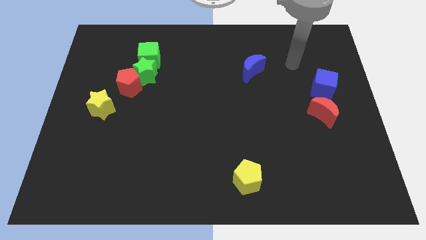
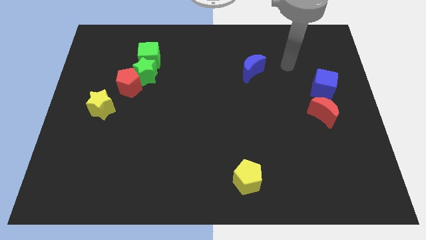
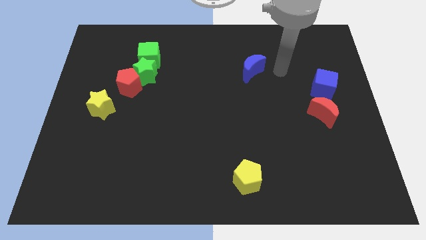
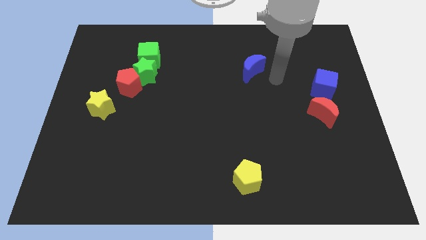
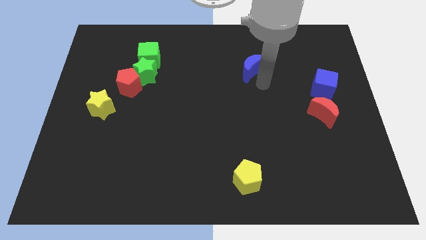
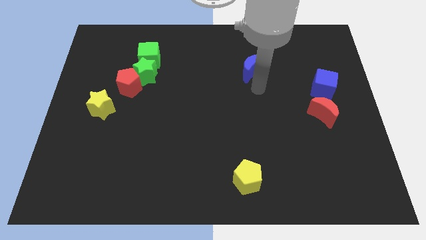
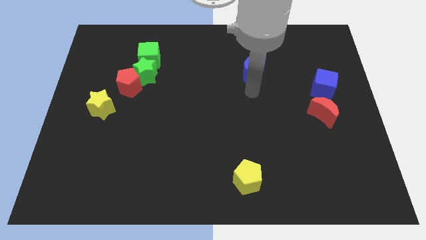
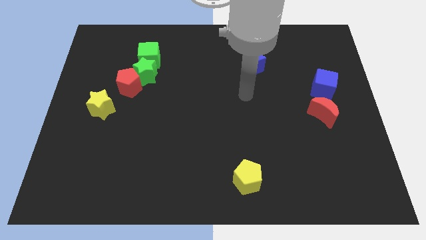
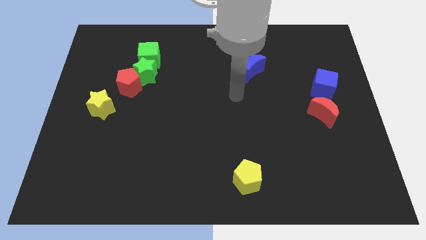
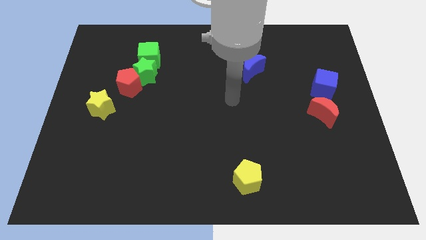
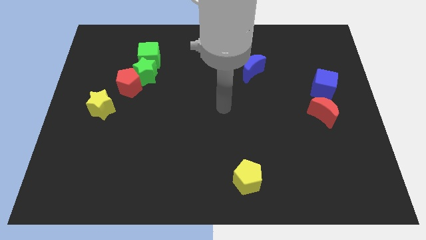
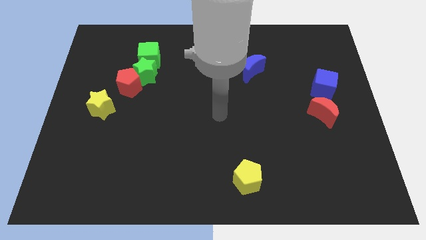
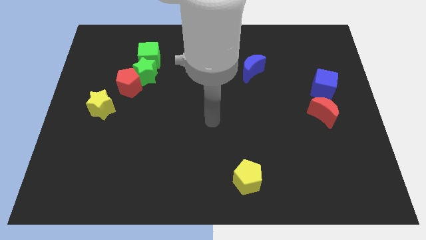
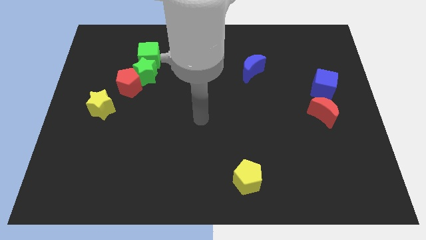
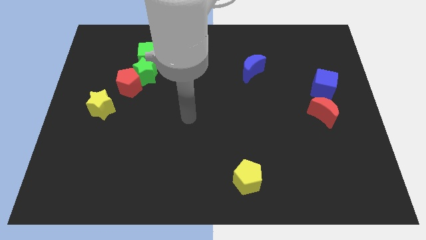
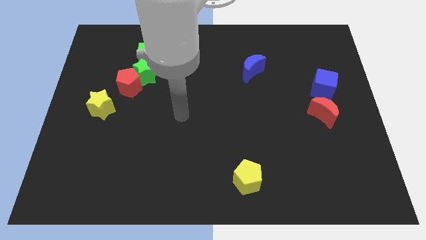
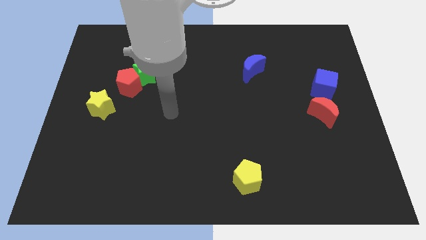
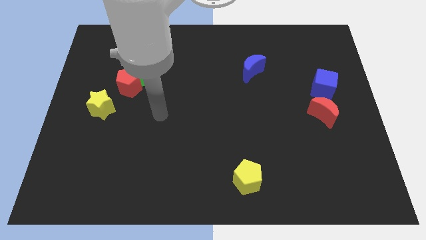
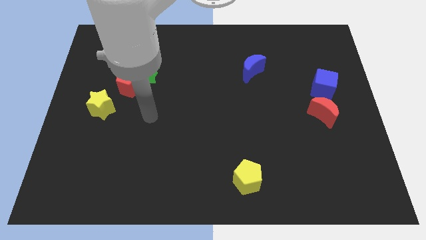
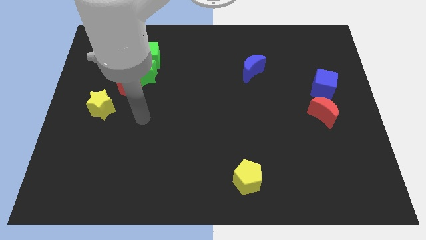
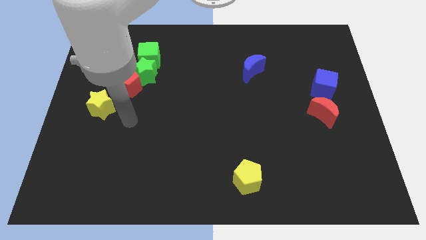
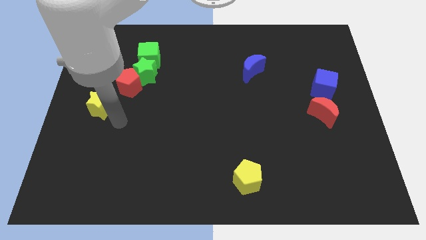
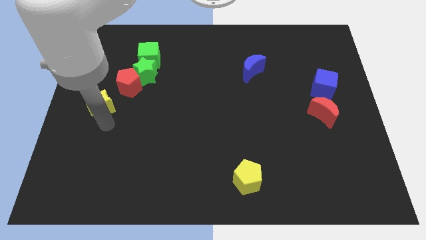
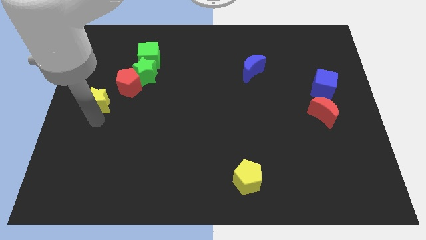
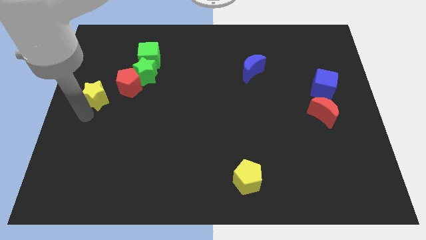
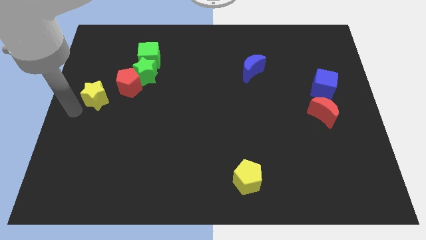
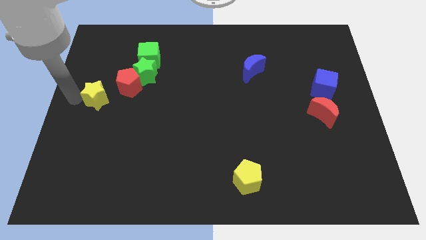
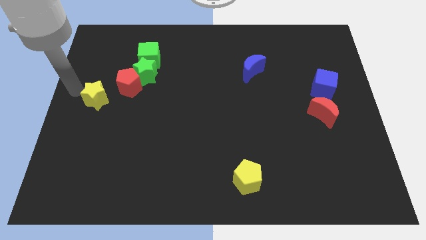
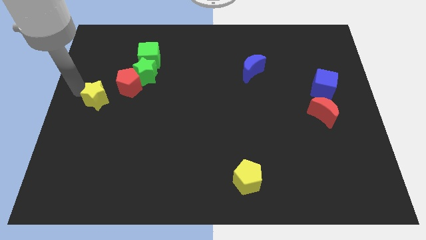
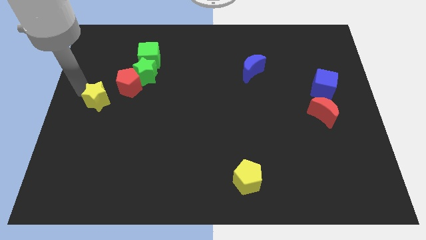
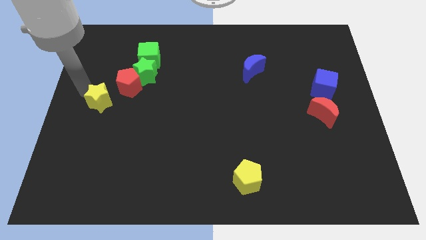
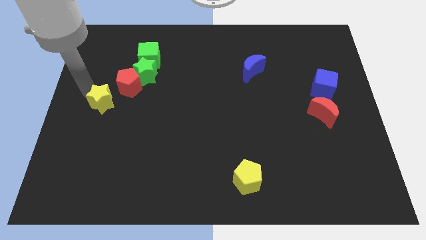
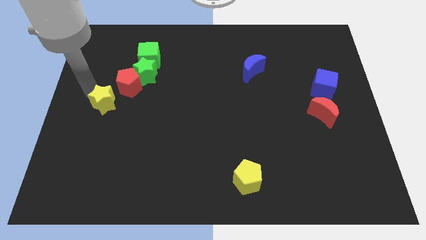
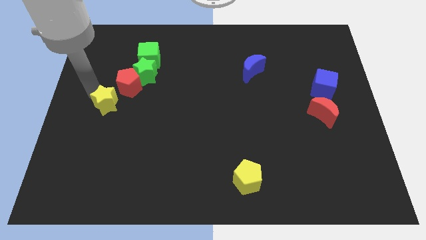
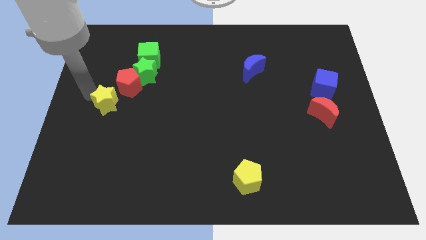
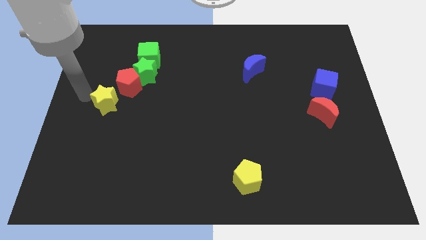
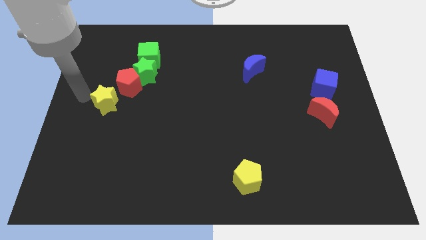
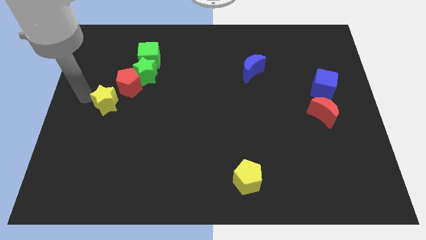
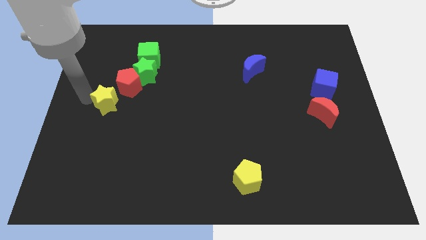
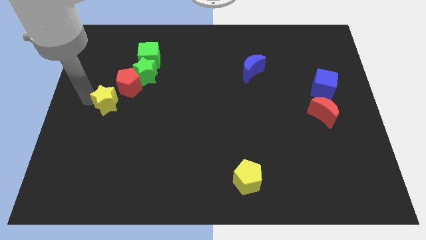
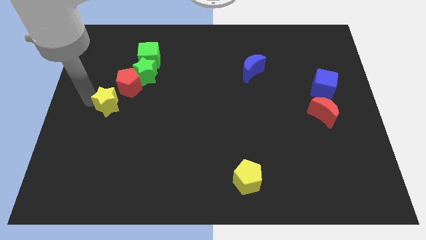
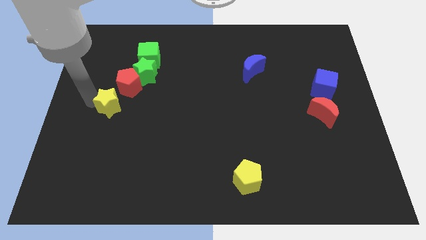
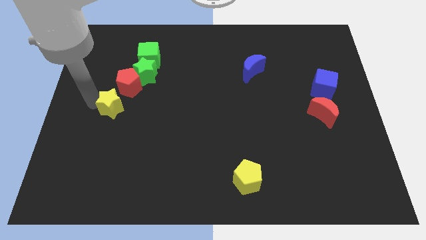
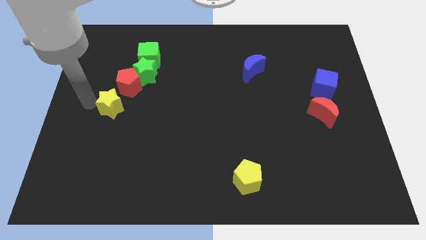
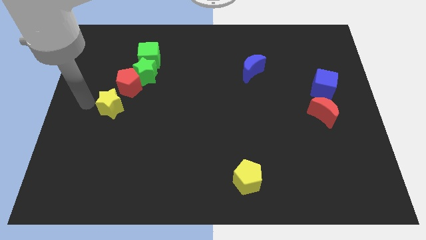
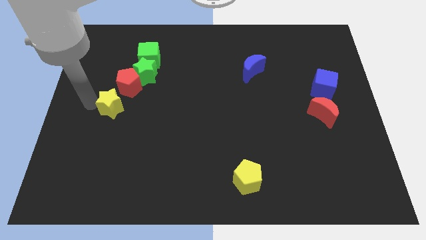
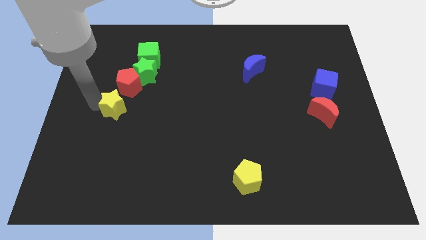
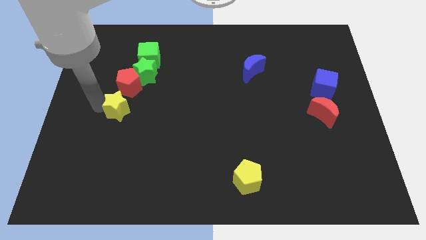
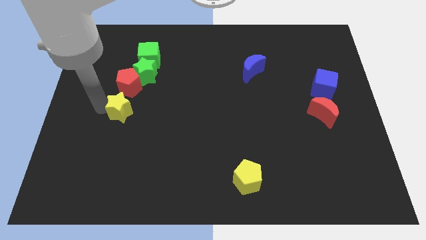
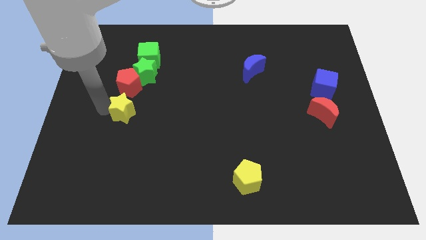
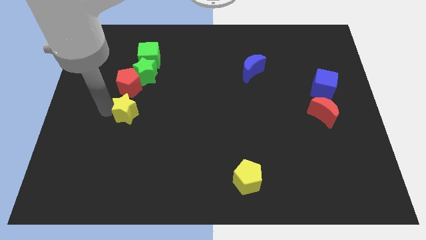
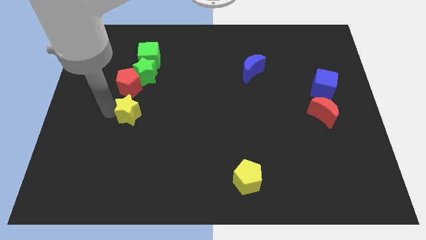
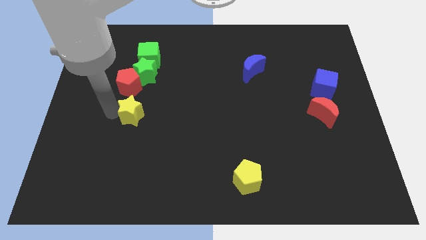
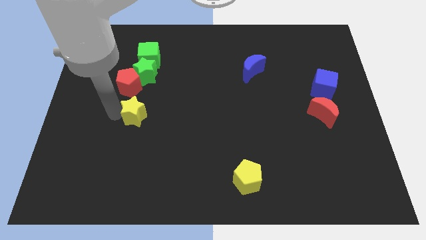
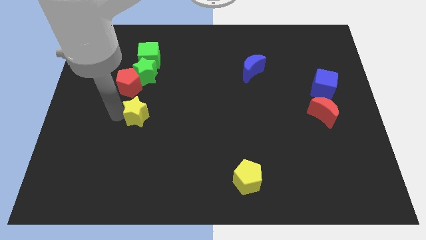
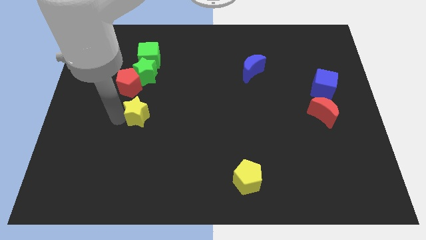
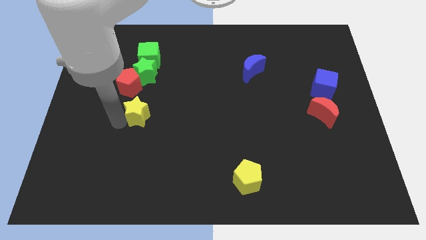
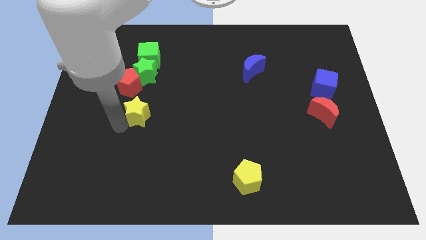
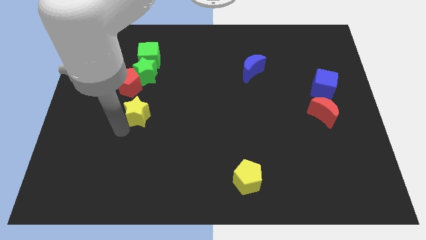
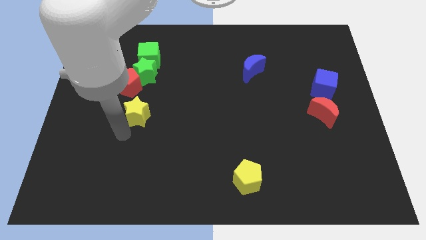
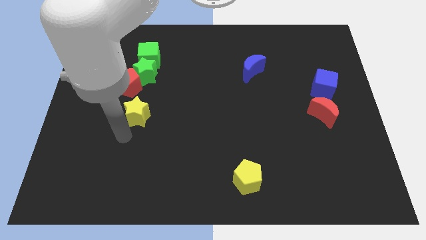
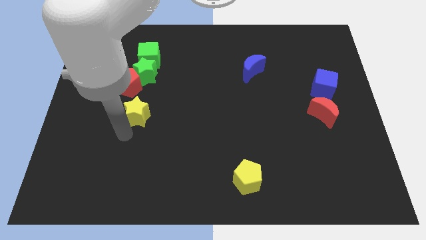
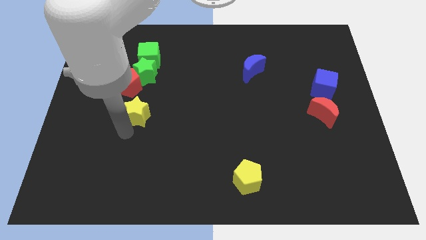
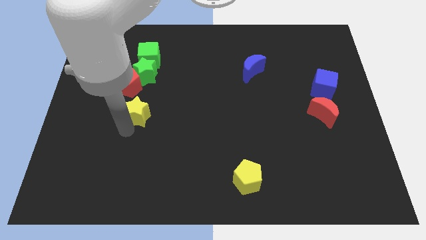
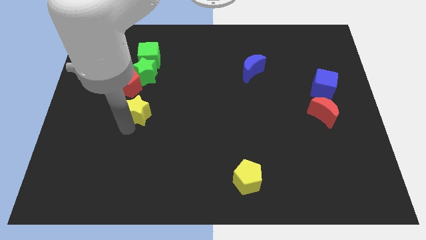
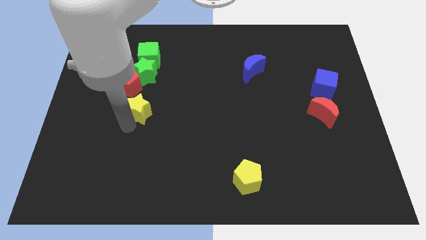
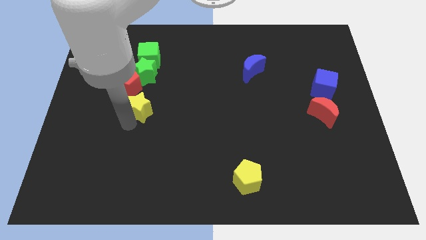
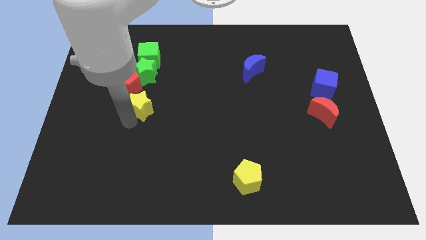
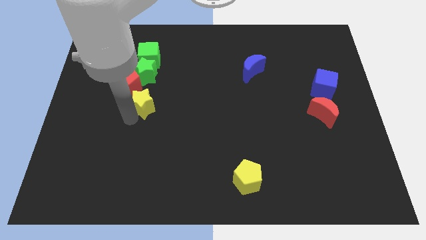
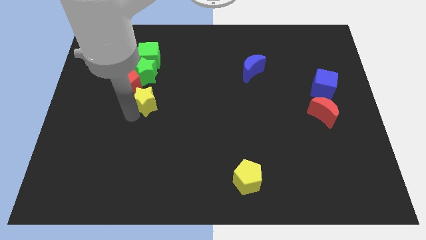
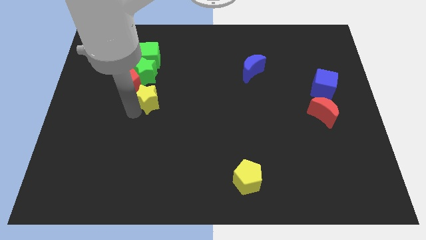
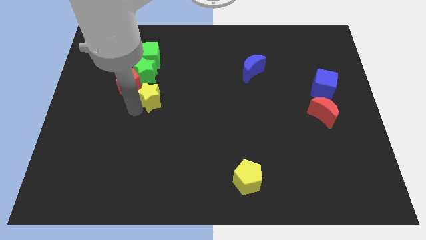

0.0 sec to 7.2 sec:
put the yellow star right of the red pentagon
